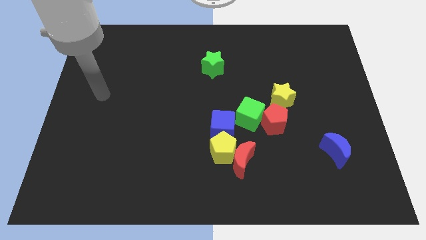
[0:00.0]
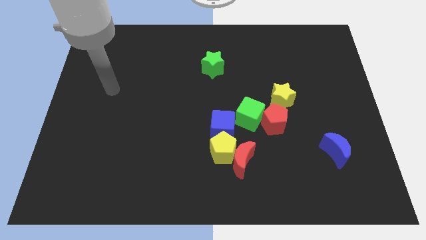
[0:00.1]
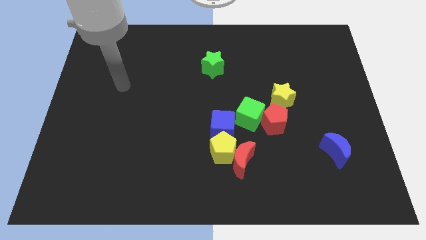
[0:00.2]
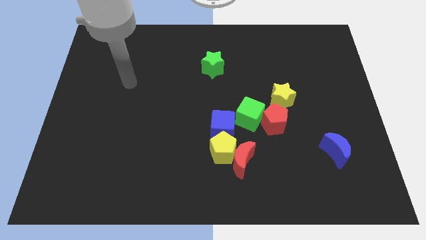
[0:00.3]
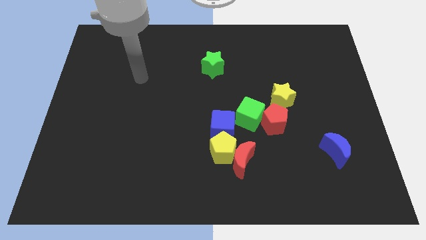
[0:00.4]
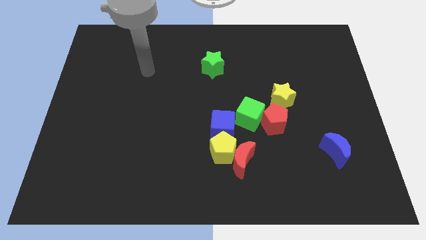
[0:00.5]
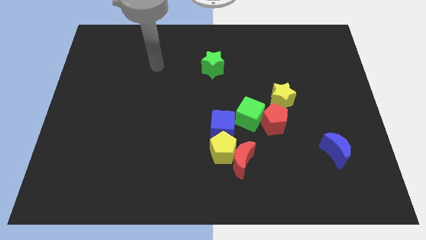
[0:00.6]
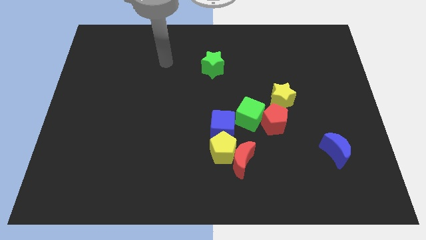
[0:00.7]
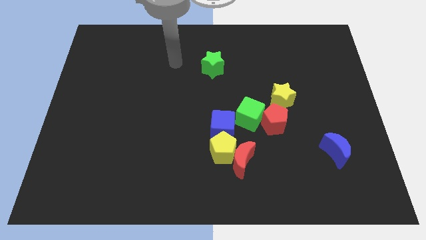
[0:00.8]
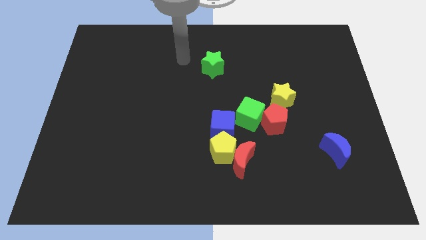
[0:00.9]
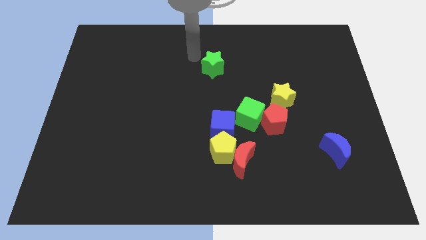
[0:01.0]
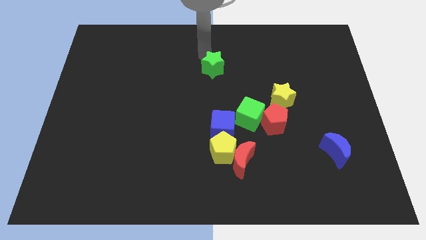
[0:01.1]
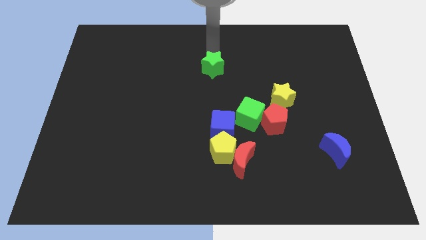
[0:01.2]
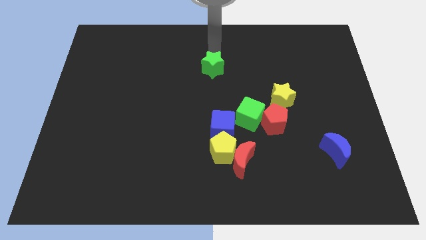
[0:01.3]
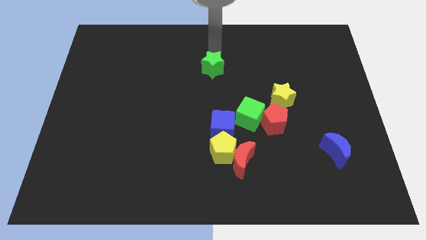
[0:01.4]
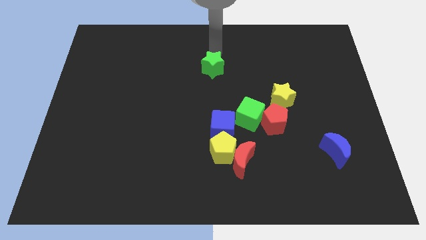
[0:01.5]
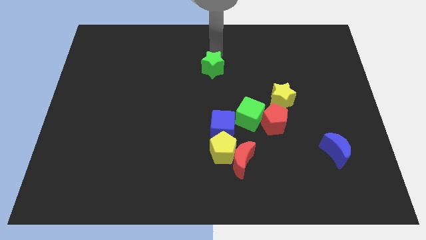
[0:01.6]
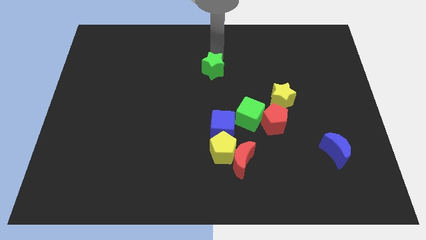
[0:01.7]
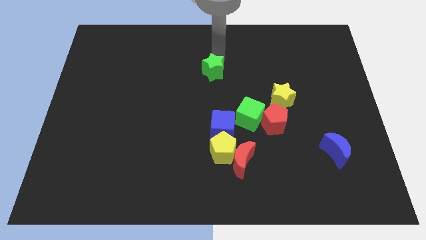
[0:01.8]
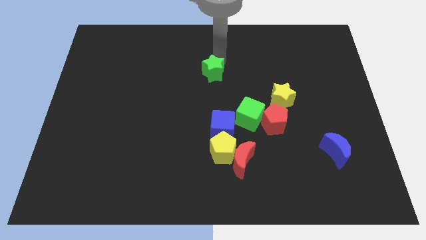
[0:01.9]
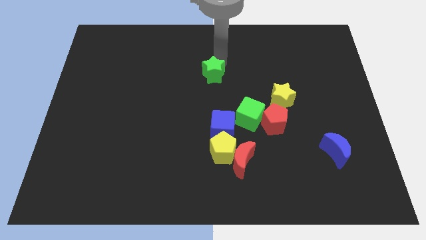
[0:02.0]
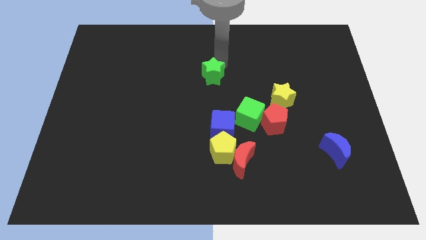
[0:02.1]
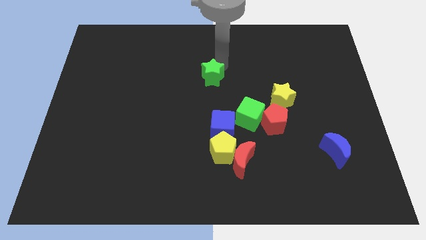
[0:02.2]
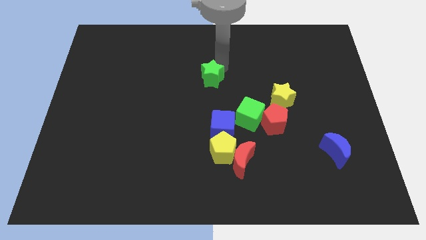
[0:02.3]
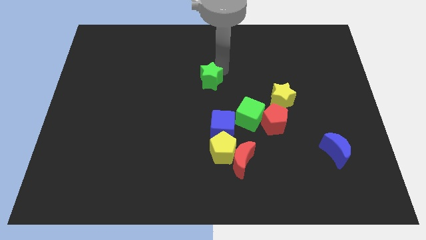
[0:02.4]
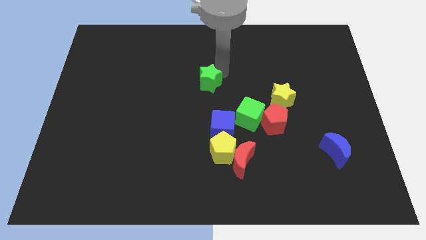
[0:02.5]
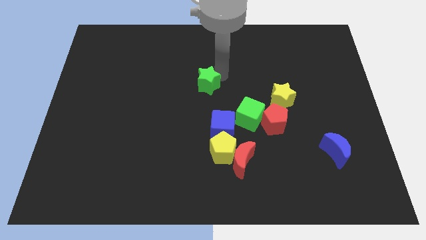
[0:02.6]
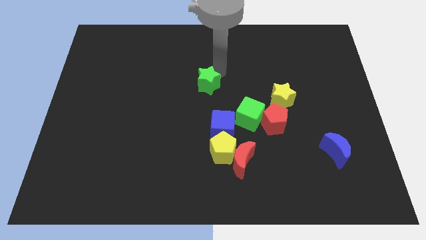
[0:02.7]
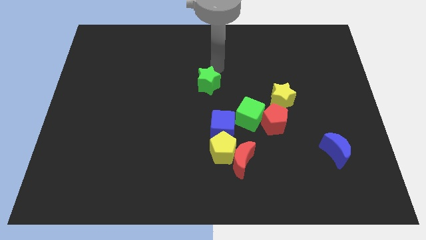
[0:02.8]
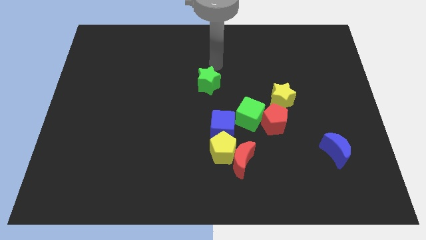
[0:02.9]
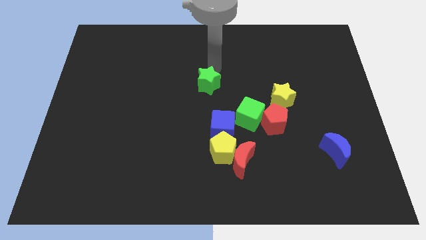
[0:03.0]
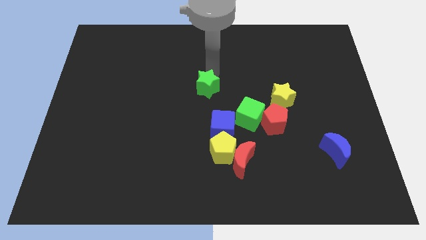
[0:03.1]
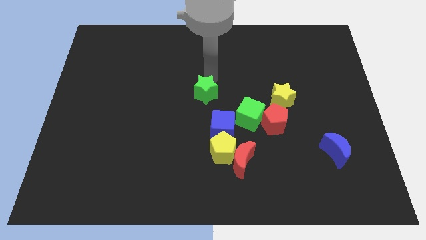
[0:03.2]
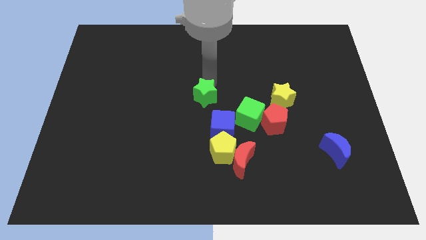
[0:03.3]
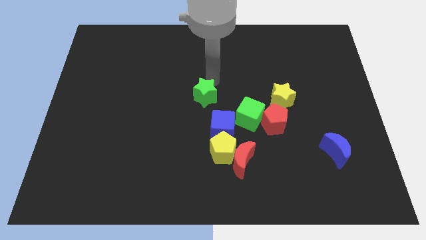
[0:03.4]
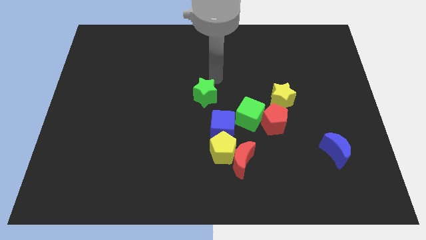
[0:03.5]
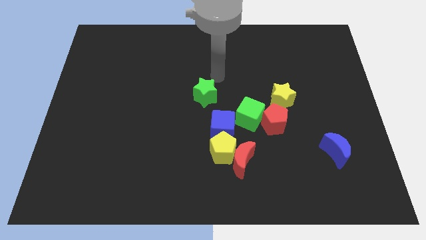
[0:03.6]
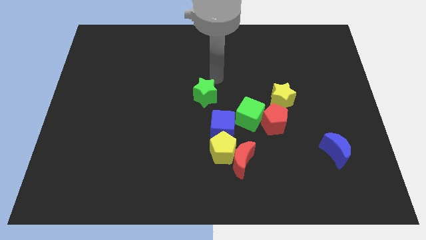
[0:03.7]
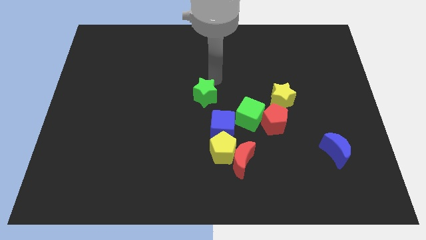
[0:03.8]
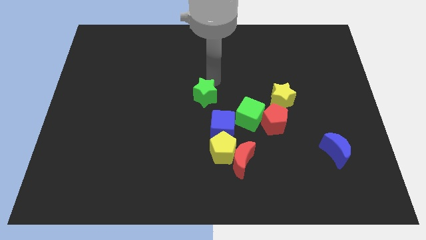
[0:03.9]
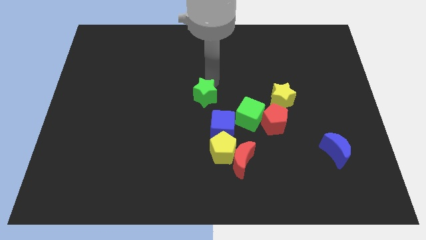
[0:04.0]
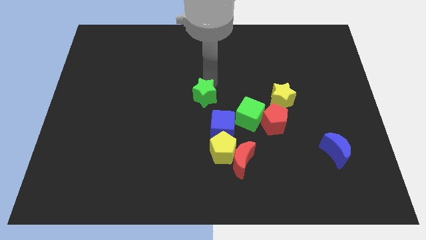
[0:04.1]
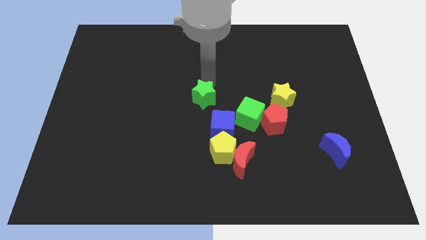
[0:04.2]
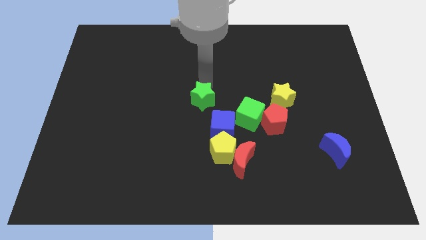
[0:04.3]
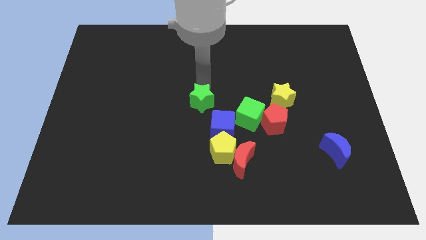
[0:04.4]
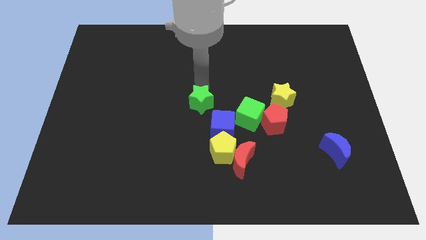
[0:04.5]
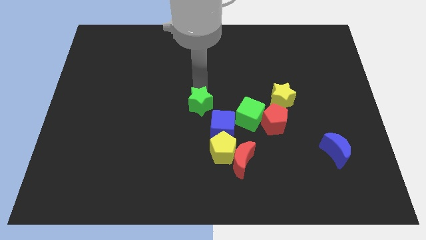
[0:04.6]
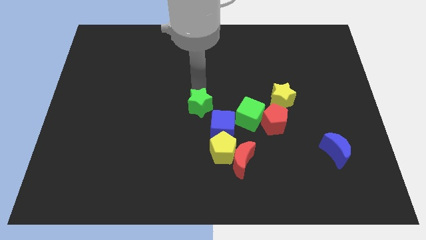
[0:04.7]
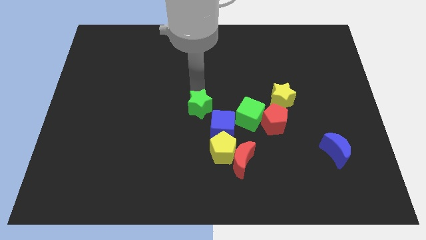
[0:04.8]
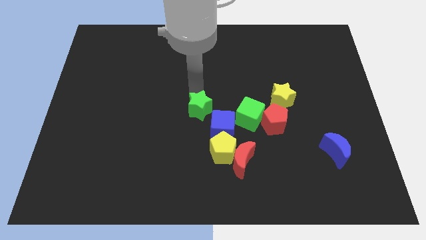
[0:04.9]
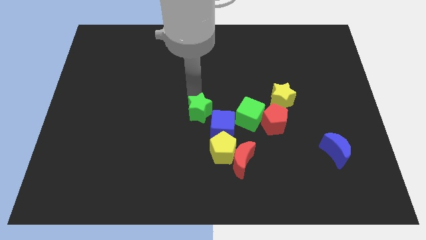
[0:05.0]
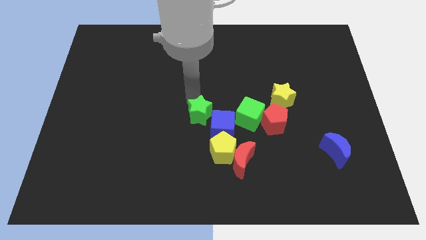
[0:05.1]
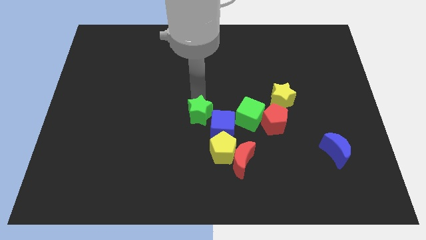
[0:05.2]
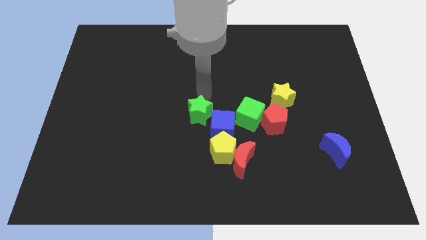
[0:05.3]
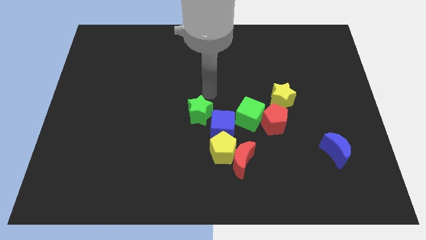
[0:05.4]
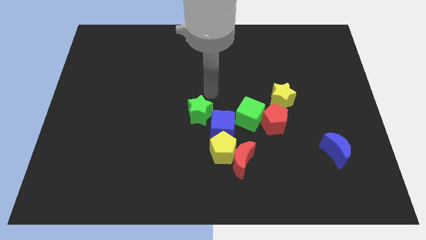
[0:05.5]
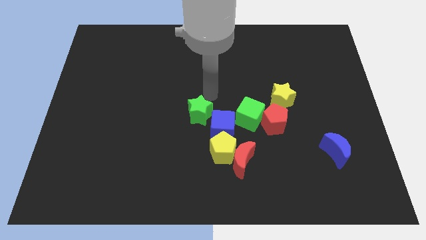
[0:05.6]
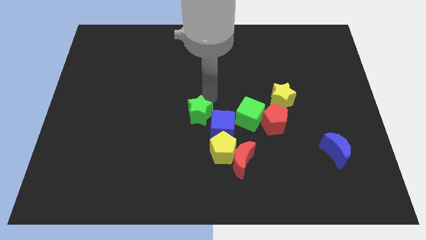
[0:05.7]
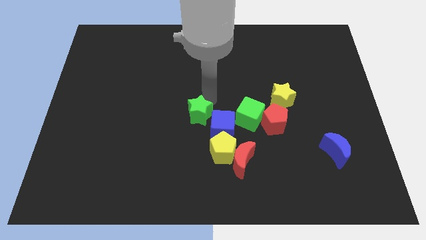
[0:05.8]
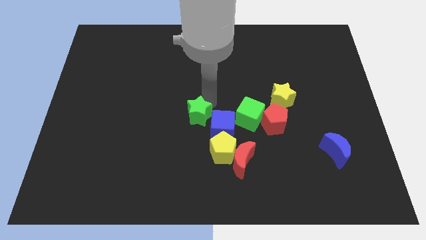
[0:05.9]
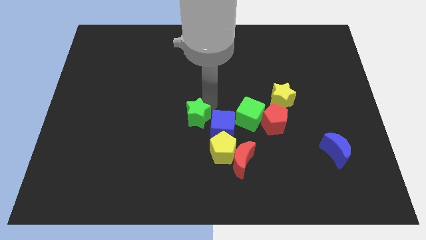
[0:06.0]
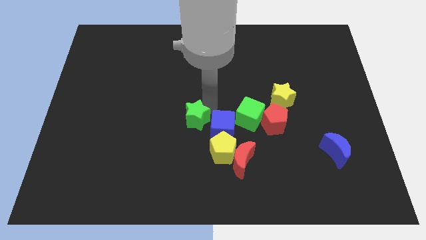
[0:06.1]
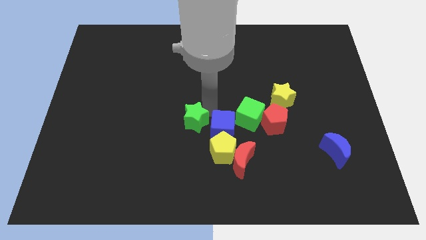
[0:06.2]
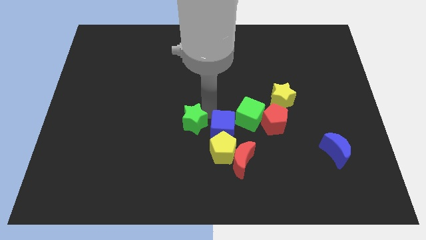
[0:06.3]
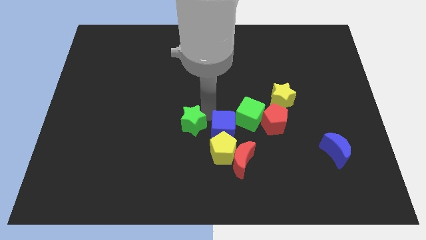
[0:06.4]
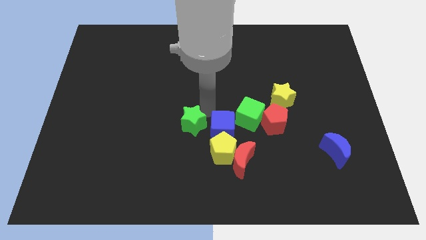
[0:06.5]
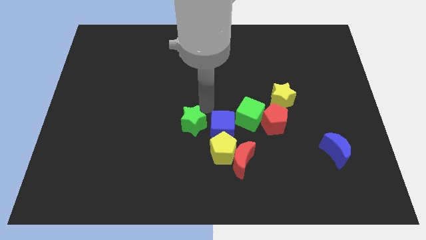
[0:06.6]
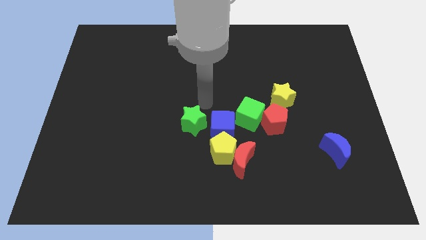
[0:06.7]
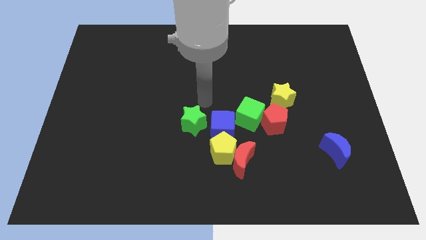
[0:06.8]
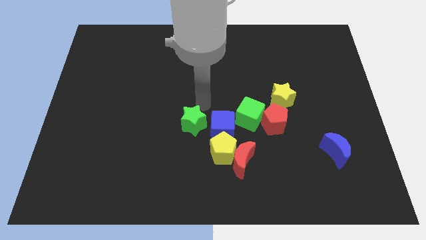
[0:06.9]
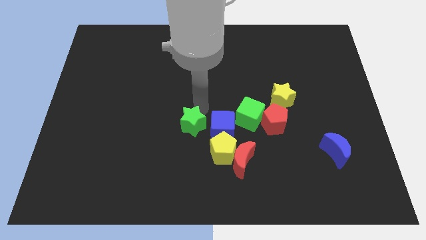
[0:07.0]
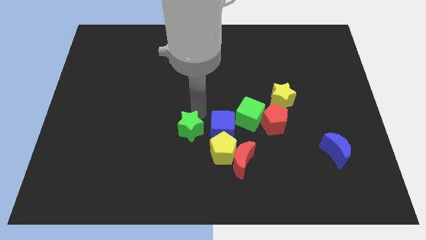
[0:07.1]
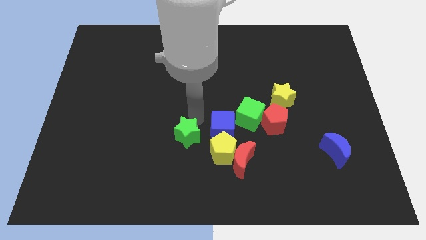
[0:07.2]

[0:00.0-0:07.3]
move the green star to the left of the yellow pentagon
